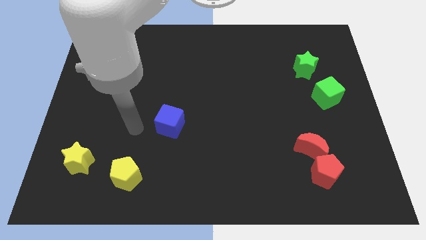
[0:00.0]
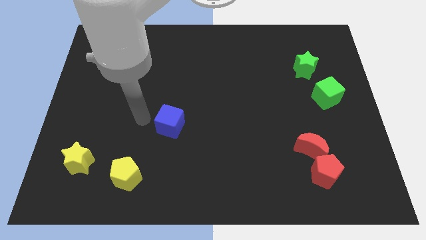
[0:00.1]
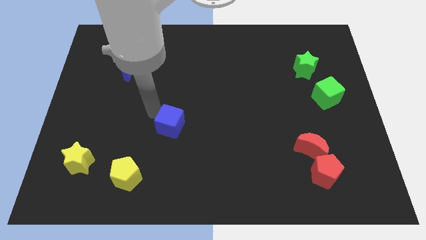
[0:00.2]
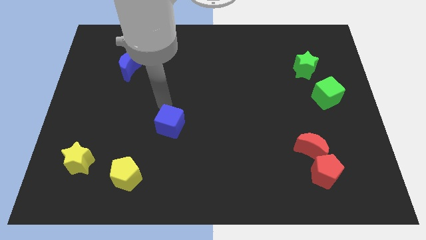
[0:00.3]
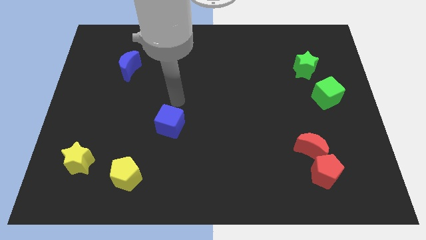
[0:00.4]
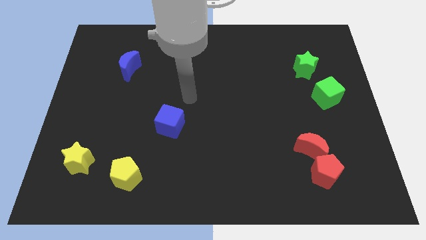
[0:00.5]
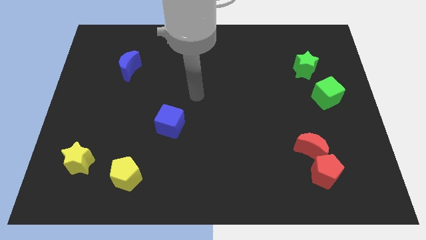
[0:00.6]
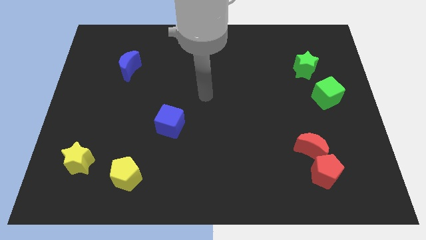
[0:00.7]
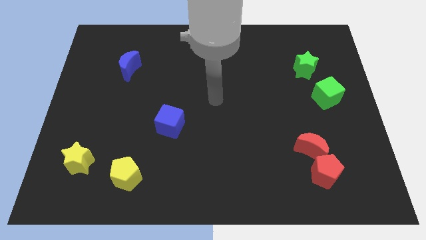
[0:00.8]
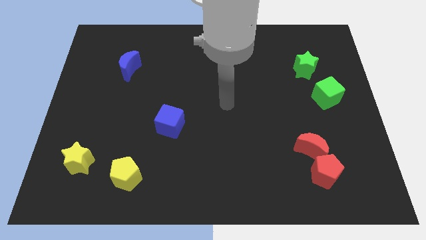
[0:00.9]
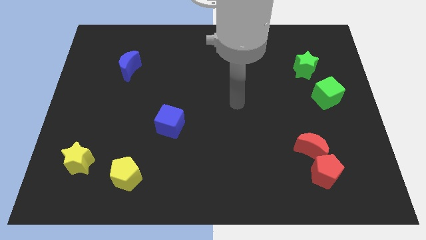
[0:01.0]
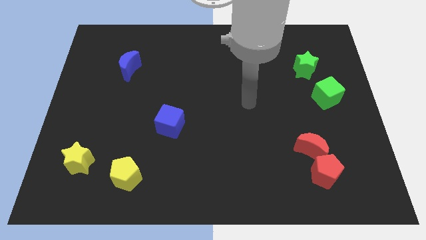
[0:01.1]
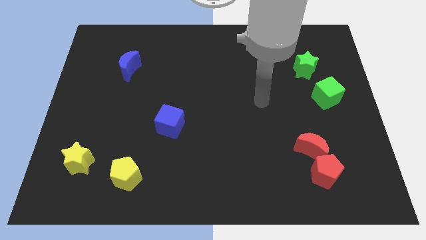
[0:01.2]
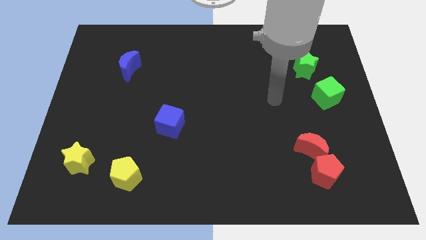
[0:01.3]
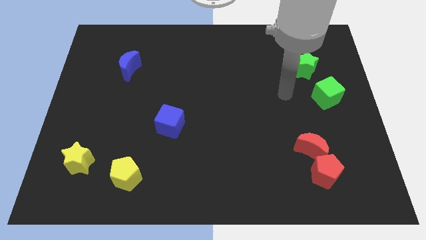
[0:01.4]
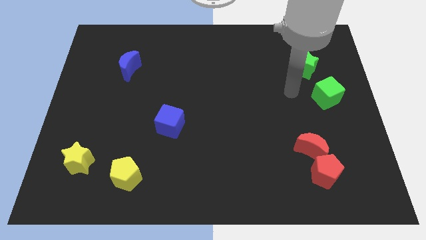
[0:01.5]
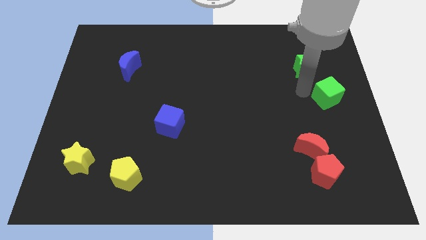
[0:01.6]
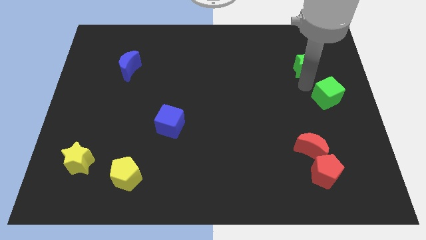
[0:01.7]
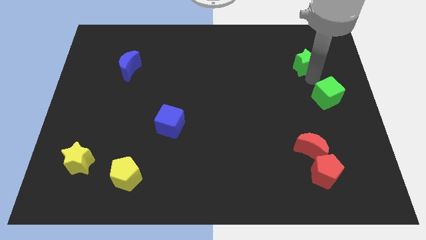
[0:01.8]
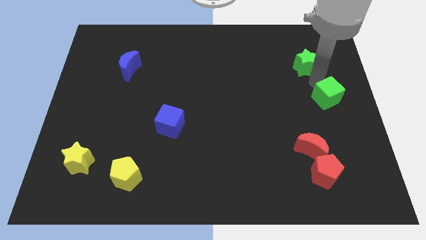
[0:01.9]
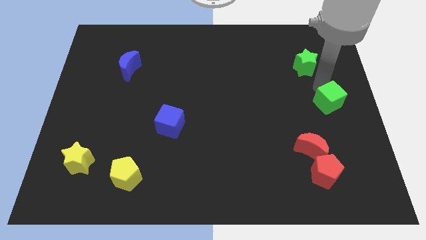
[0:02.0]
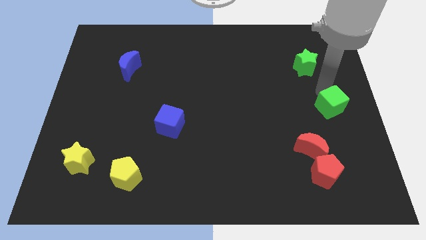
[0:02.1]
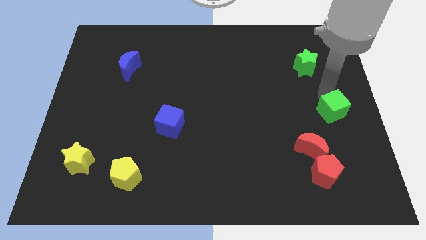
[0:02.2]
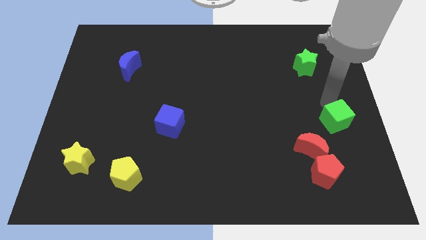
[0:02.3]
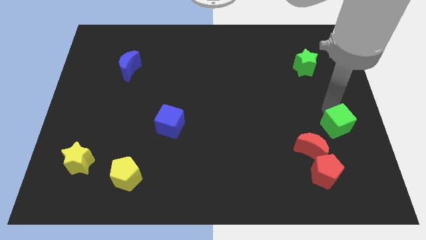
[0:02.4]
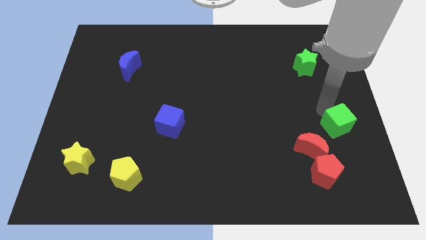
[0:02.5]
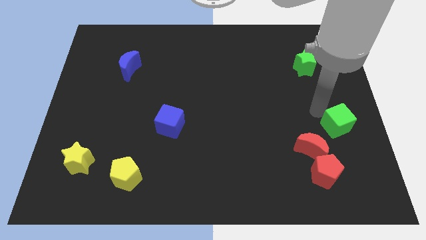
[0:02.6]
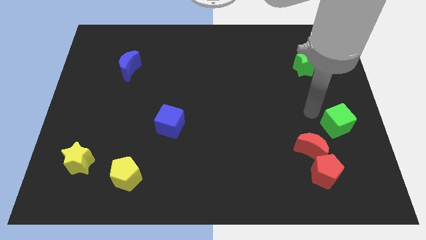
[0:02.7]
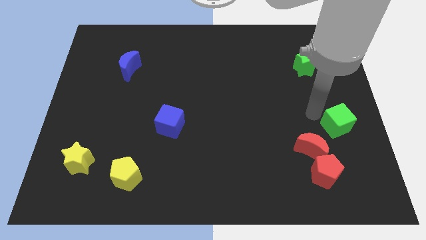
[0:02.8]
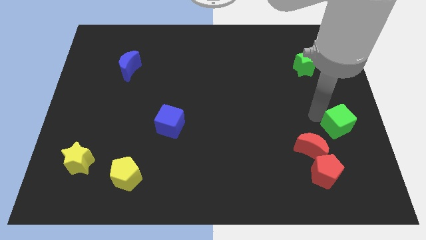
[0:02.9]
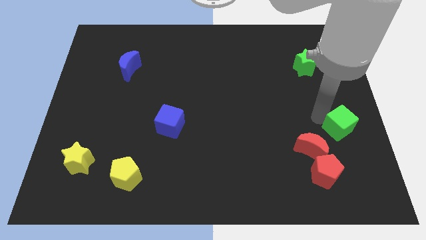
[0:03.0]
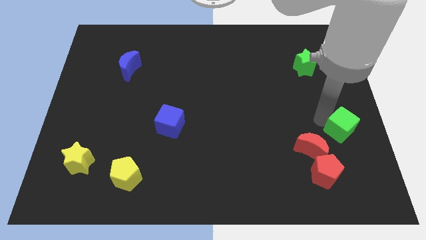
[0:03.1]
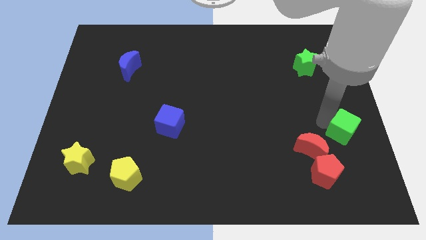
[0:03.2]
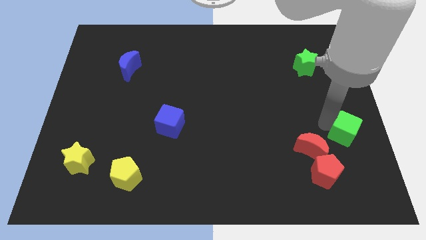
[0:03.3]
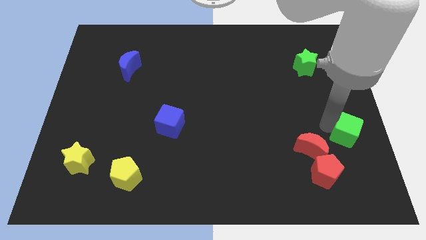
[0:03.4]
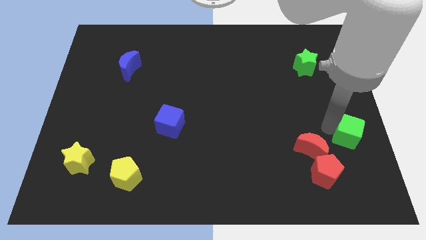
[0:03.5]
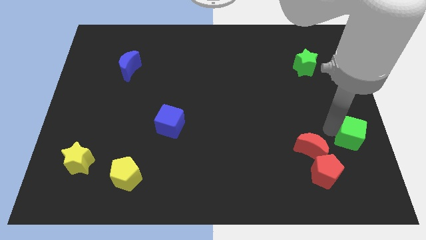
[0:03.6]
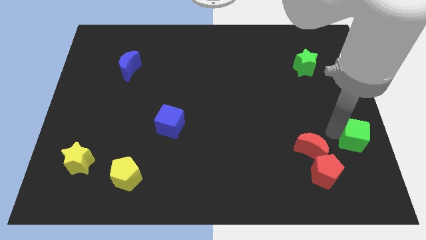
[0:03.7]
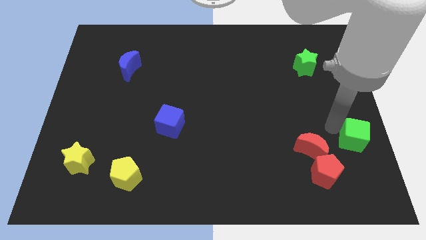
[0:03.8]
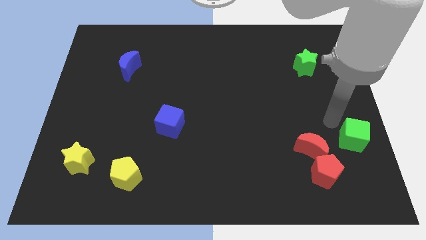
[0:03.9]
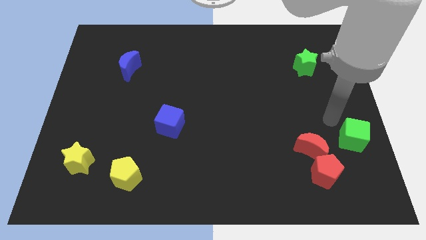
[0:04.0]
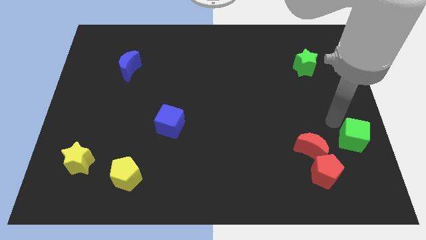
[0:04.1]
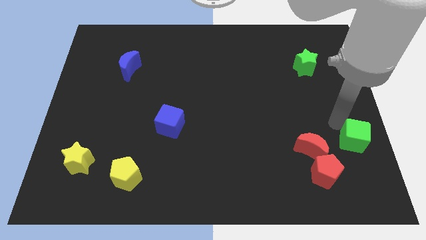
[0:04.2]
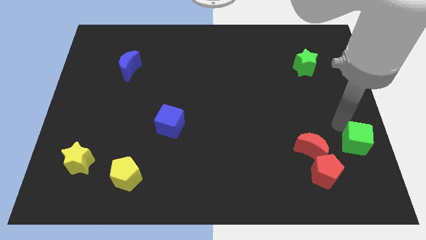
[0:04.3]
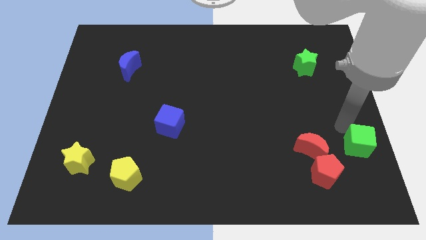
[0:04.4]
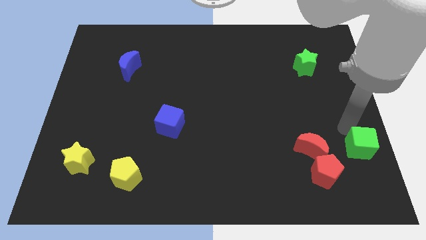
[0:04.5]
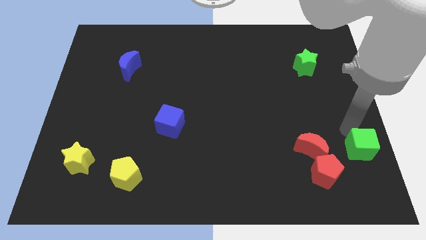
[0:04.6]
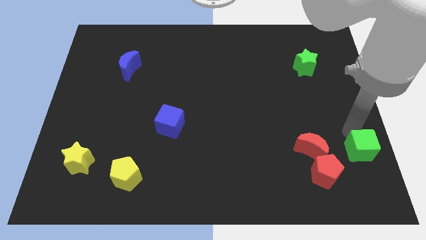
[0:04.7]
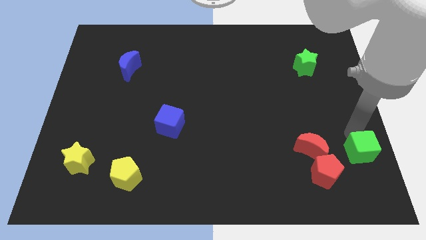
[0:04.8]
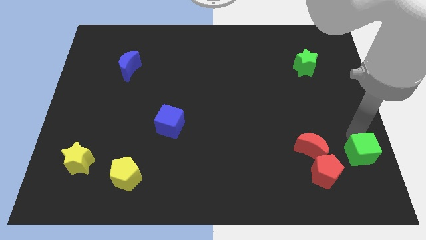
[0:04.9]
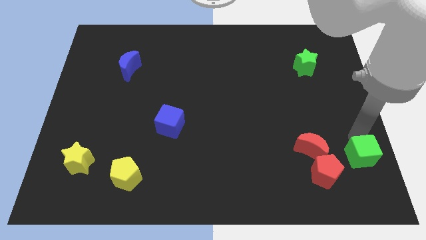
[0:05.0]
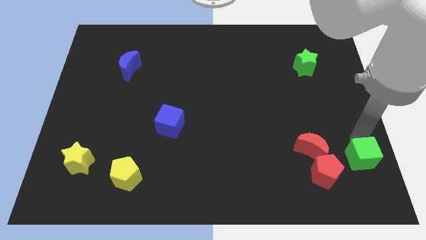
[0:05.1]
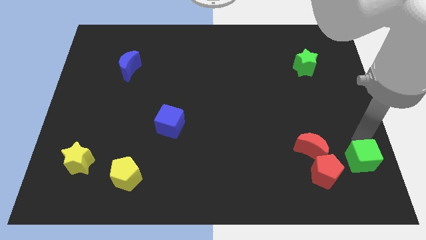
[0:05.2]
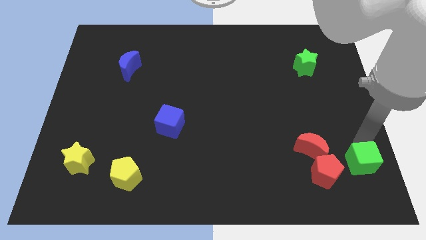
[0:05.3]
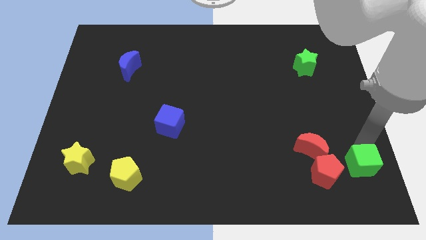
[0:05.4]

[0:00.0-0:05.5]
move the green cube to the bottom right of the board

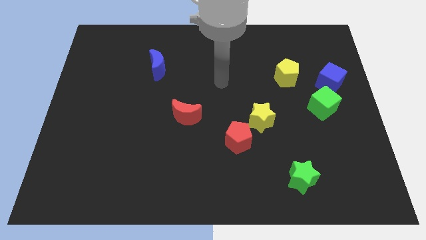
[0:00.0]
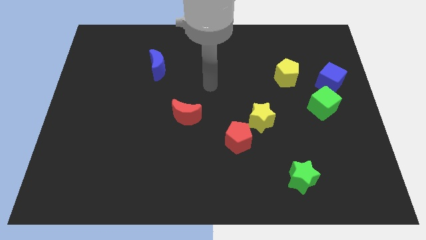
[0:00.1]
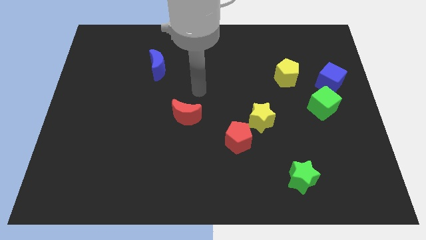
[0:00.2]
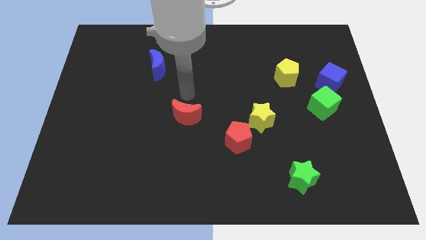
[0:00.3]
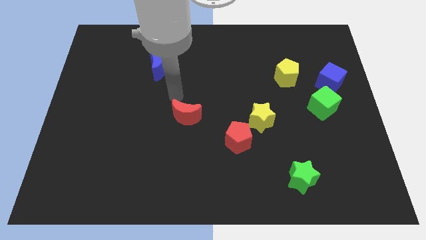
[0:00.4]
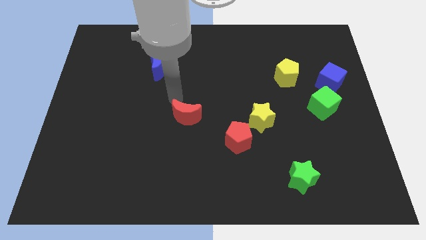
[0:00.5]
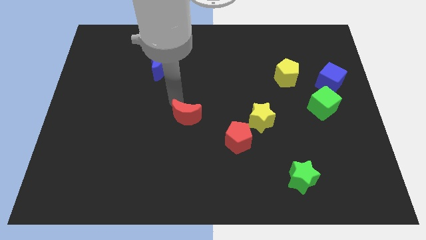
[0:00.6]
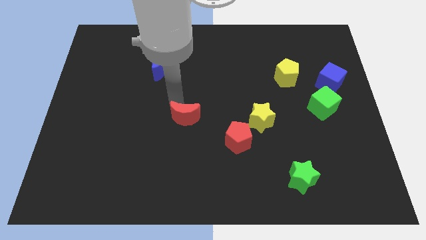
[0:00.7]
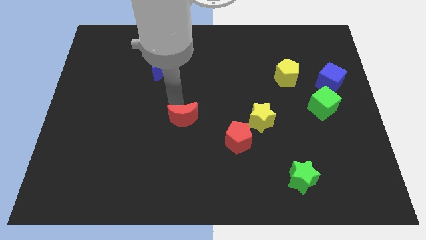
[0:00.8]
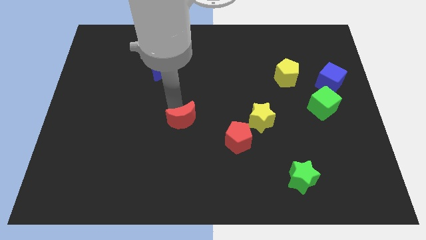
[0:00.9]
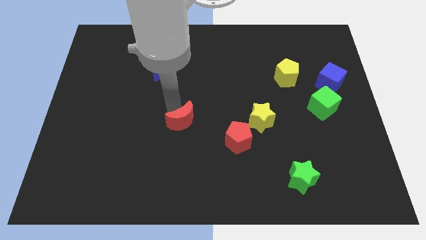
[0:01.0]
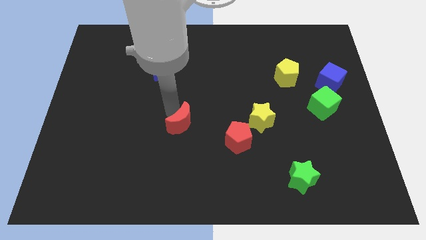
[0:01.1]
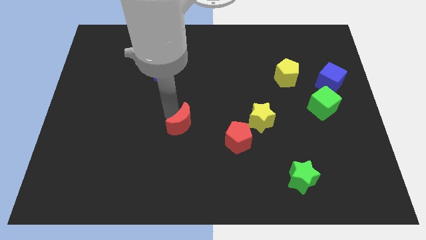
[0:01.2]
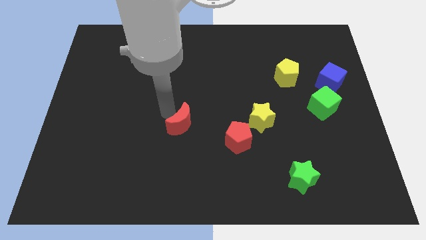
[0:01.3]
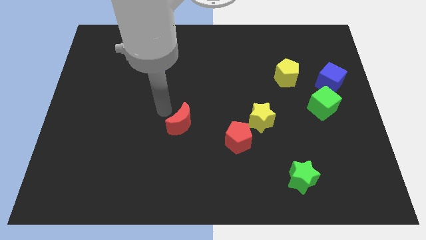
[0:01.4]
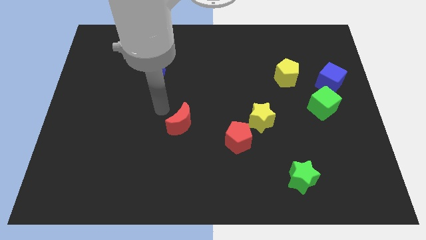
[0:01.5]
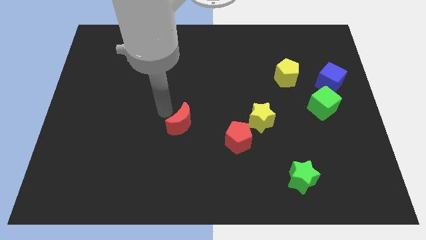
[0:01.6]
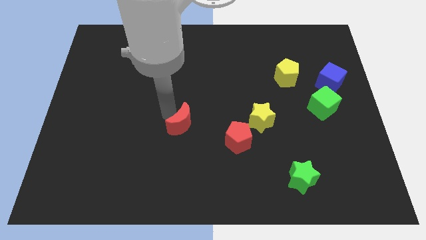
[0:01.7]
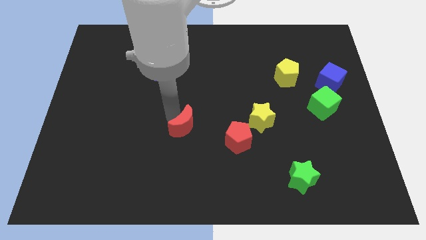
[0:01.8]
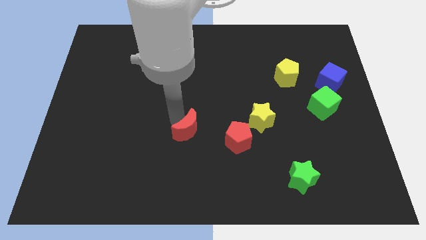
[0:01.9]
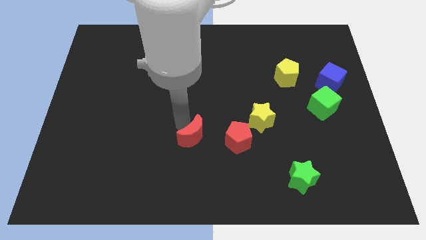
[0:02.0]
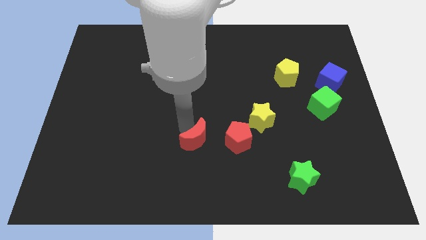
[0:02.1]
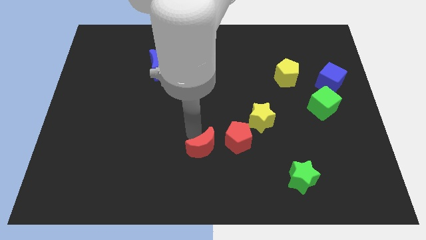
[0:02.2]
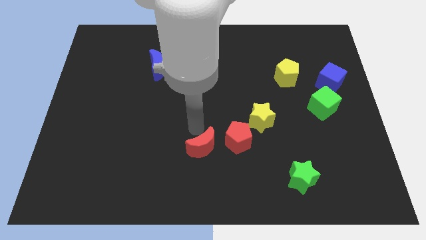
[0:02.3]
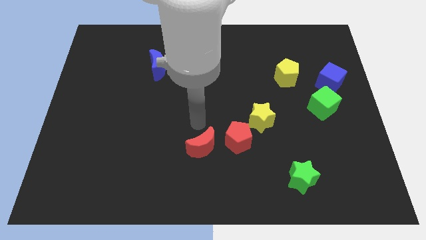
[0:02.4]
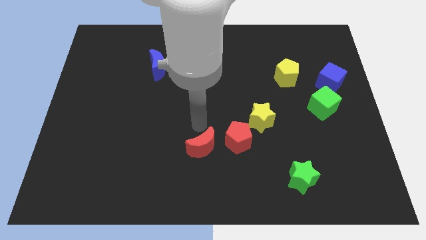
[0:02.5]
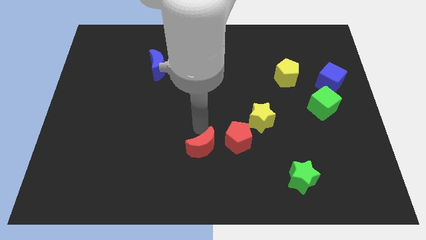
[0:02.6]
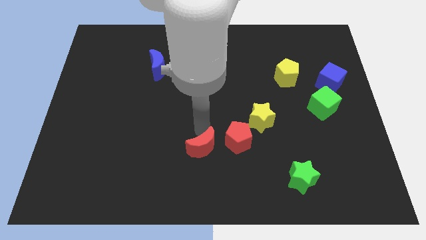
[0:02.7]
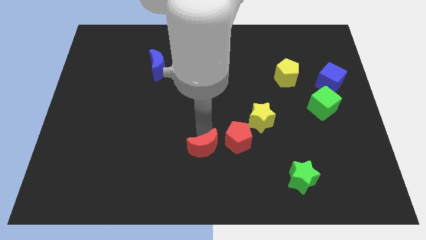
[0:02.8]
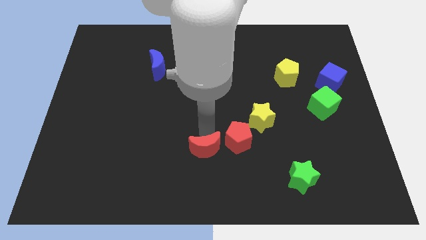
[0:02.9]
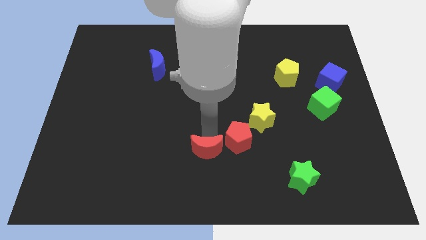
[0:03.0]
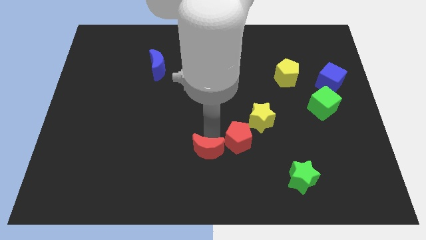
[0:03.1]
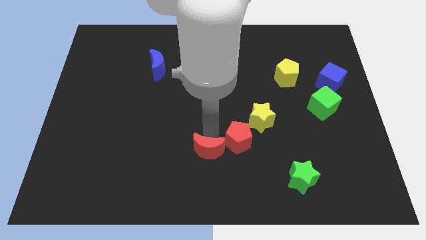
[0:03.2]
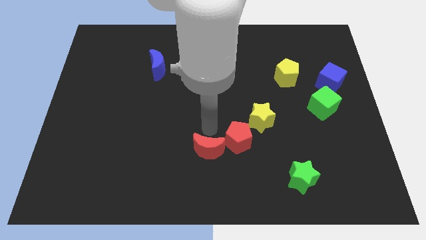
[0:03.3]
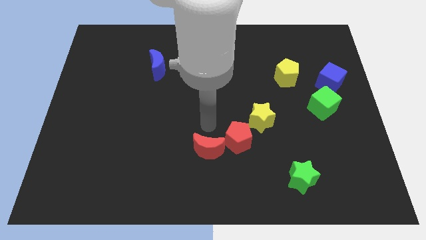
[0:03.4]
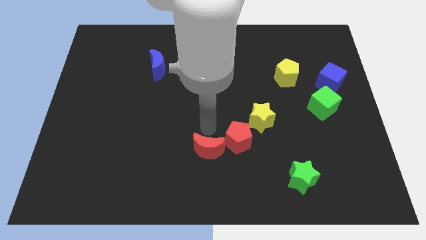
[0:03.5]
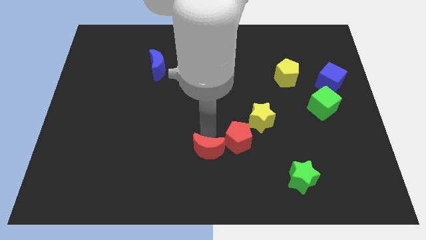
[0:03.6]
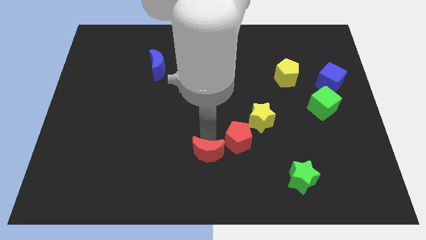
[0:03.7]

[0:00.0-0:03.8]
slide the red moon to the bottom side
